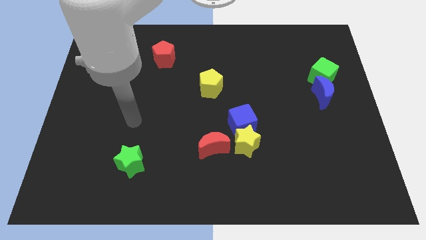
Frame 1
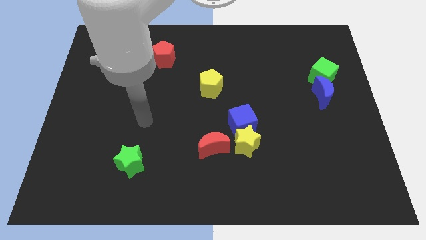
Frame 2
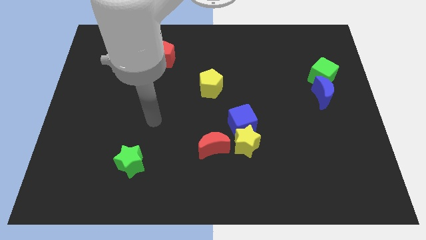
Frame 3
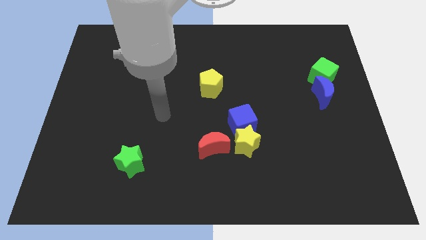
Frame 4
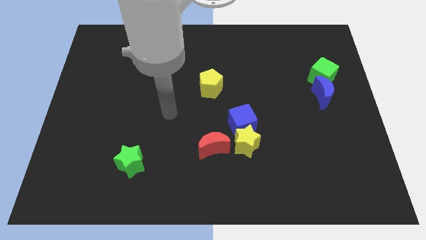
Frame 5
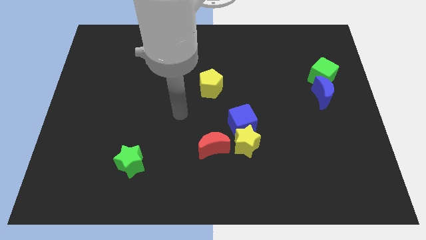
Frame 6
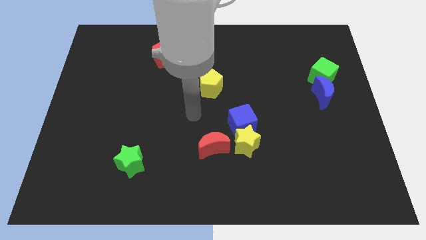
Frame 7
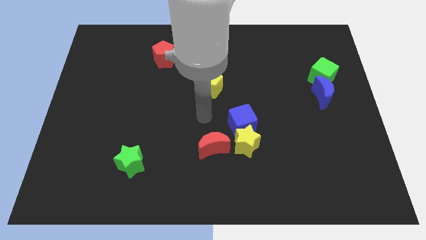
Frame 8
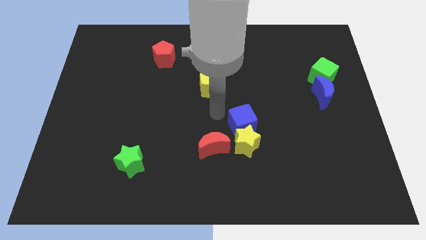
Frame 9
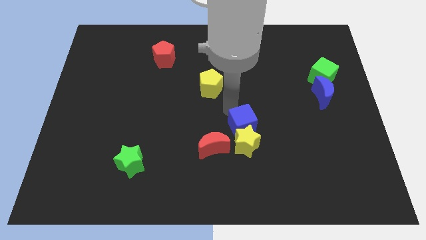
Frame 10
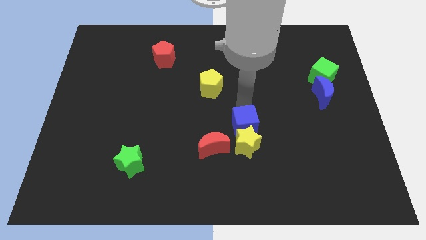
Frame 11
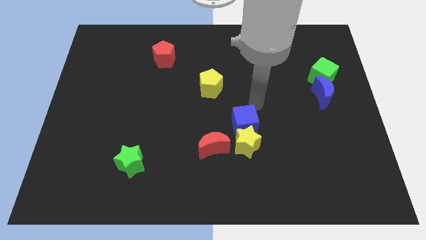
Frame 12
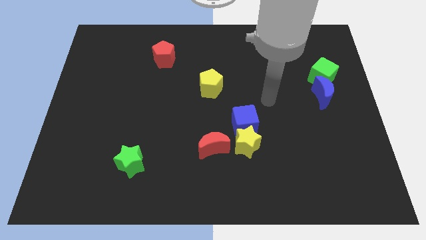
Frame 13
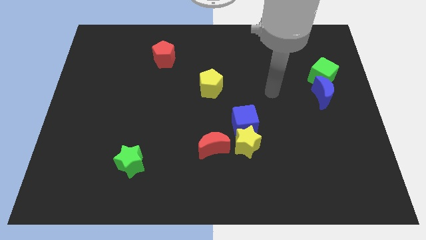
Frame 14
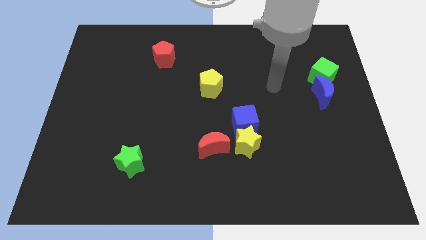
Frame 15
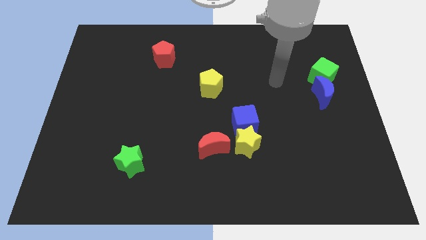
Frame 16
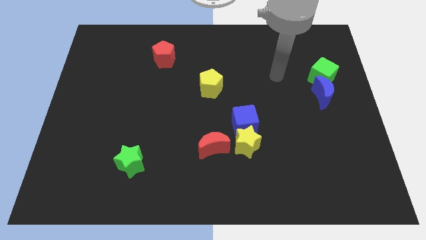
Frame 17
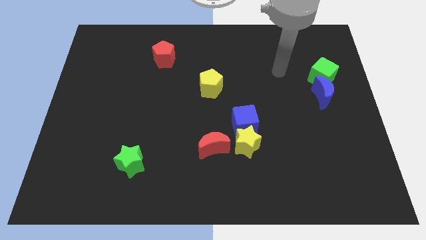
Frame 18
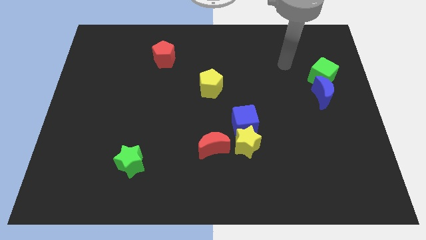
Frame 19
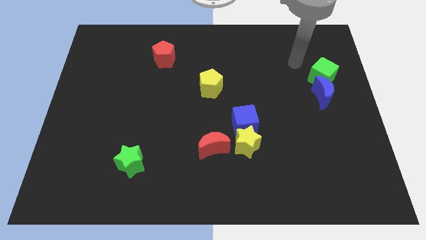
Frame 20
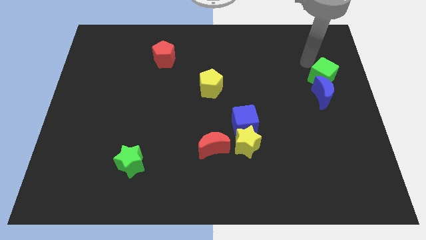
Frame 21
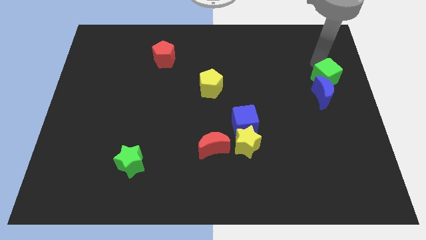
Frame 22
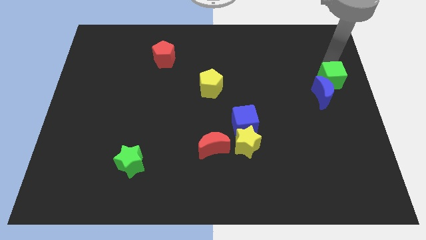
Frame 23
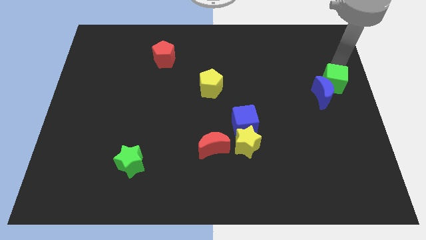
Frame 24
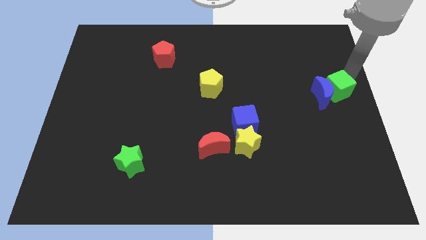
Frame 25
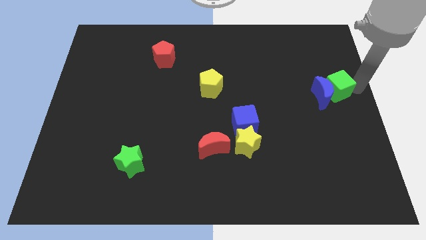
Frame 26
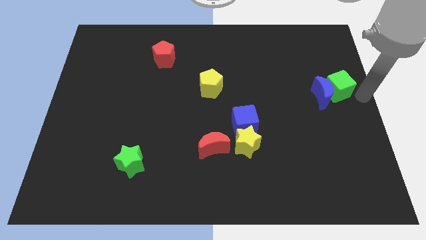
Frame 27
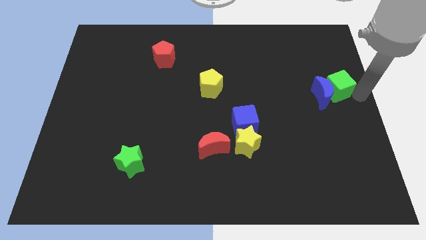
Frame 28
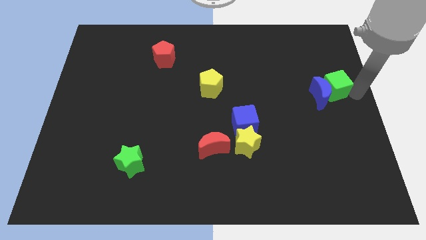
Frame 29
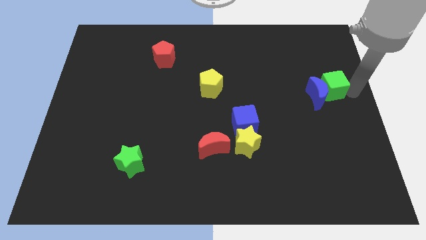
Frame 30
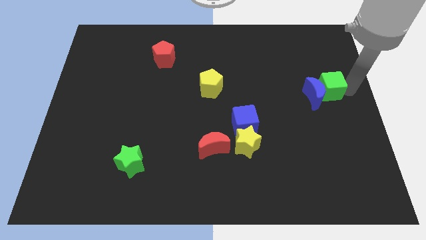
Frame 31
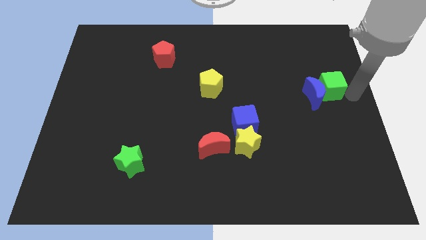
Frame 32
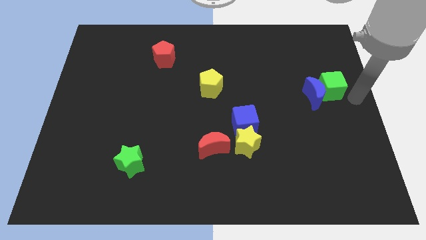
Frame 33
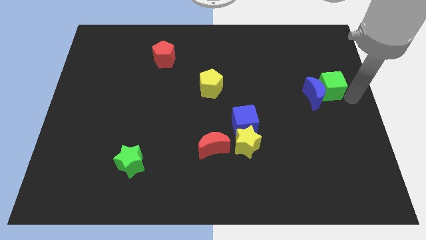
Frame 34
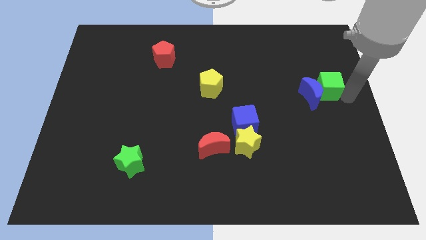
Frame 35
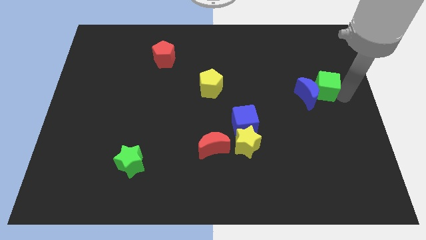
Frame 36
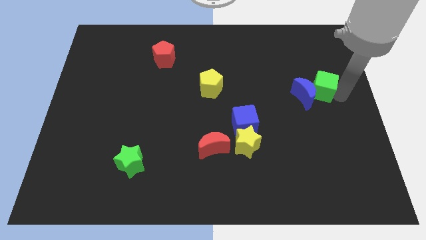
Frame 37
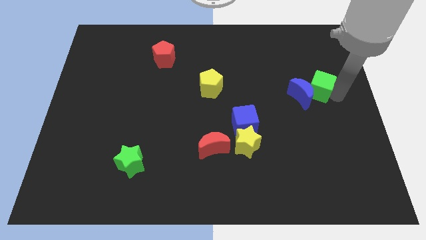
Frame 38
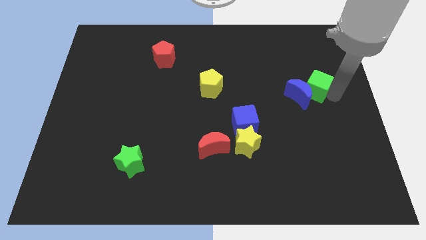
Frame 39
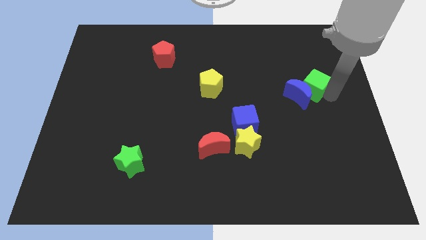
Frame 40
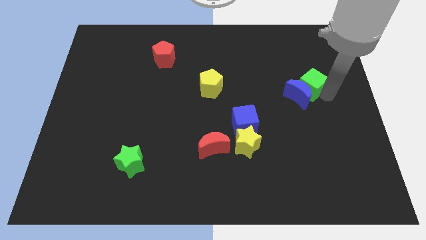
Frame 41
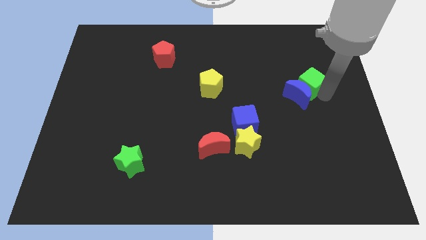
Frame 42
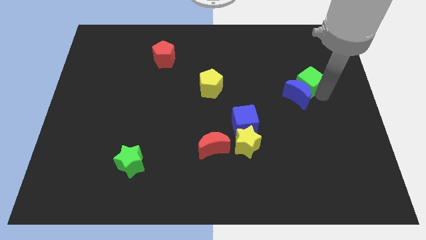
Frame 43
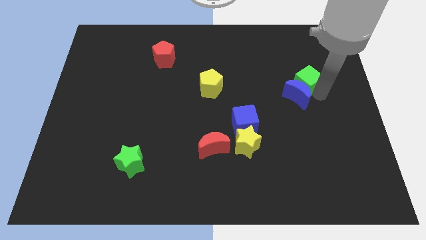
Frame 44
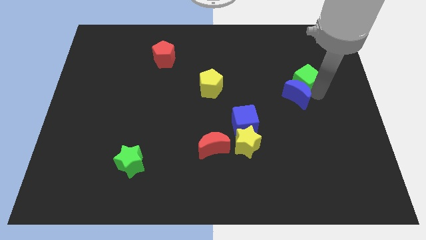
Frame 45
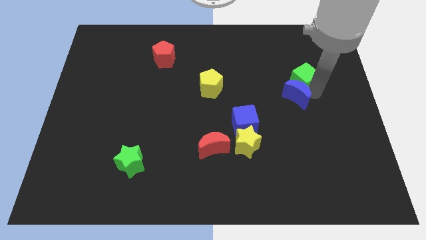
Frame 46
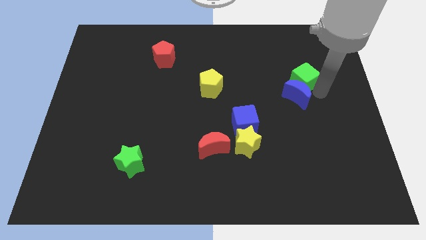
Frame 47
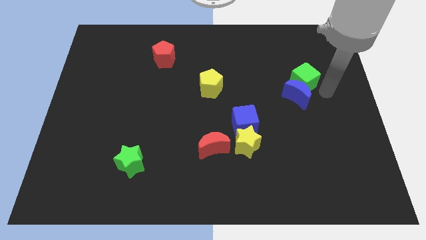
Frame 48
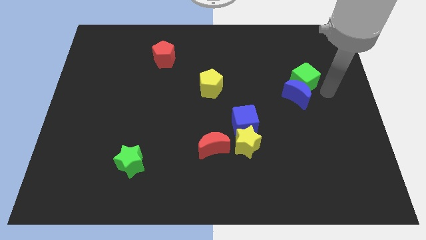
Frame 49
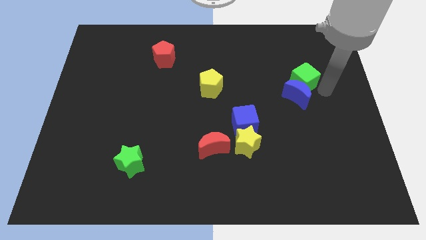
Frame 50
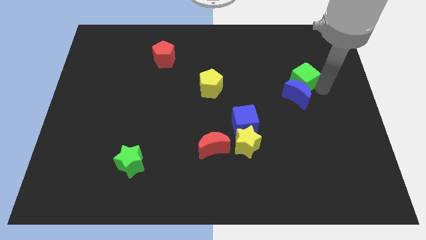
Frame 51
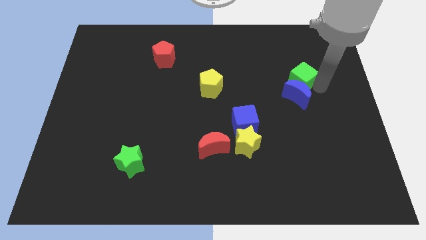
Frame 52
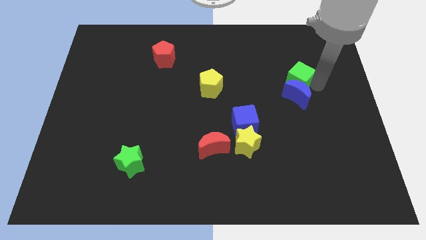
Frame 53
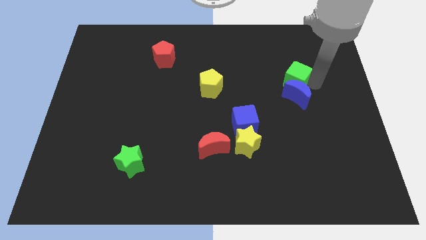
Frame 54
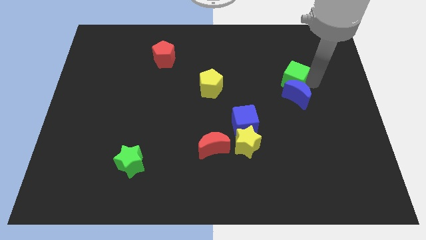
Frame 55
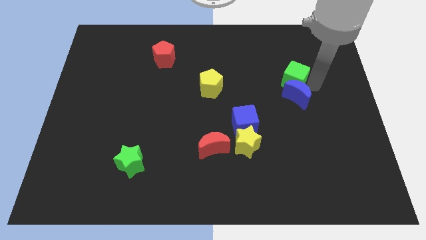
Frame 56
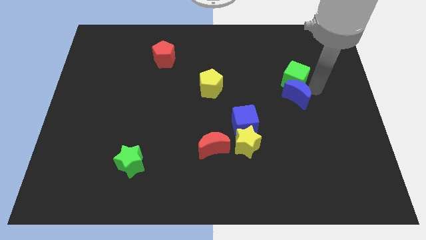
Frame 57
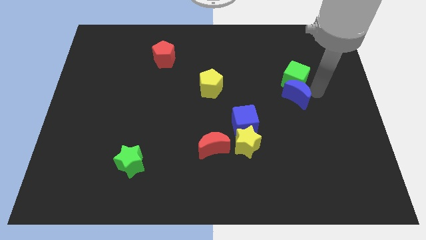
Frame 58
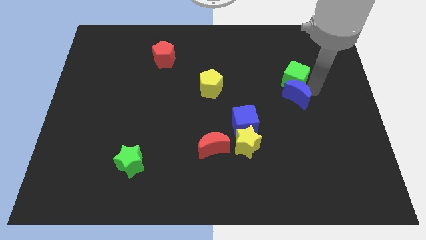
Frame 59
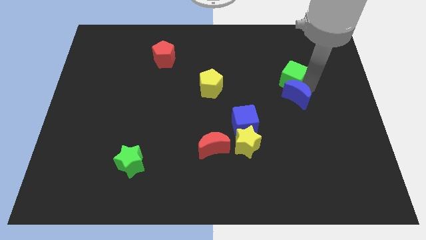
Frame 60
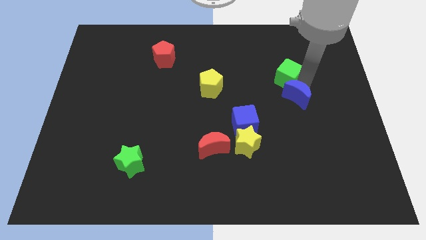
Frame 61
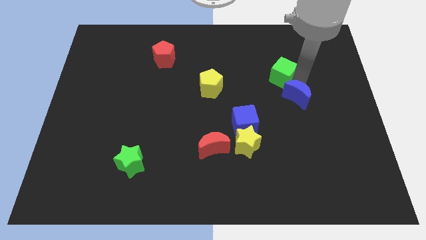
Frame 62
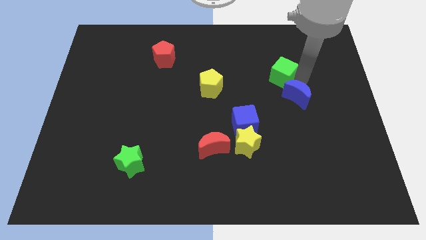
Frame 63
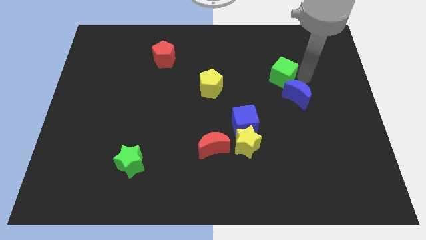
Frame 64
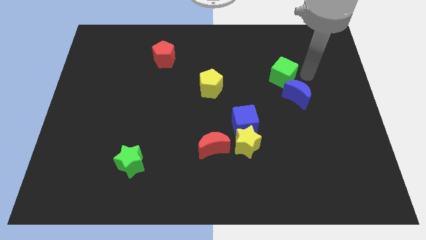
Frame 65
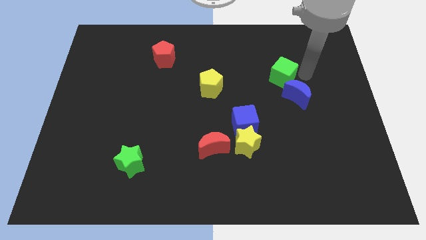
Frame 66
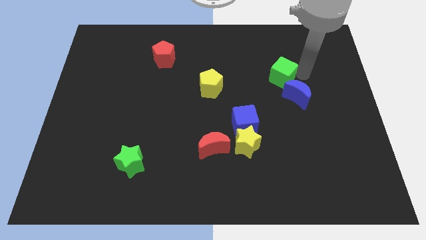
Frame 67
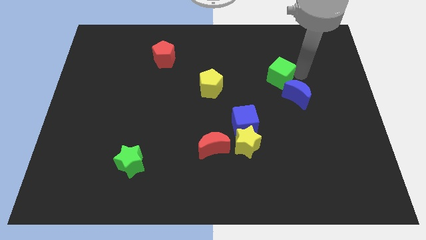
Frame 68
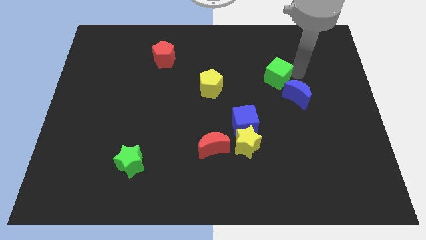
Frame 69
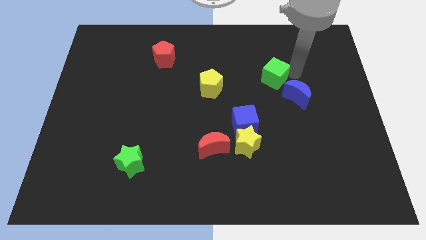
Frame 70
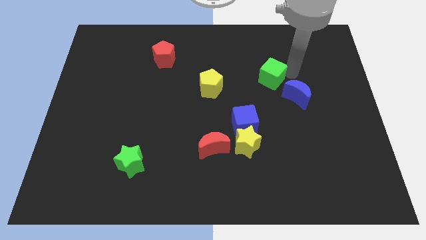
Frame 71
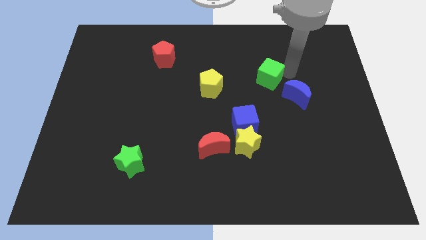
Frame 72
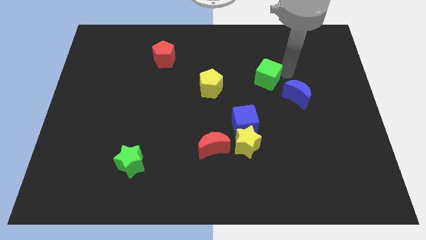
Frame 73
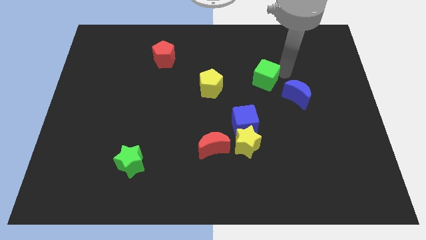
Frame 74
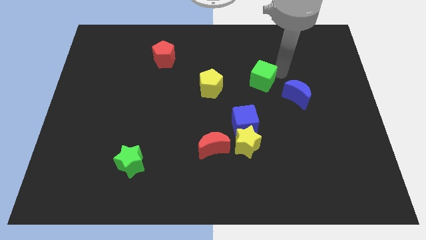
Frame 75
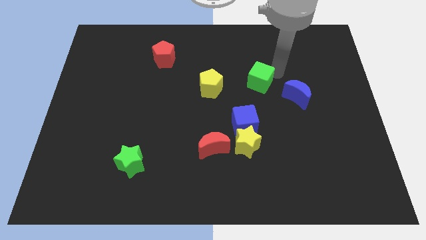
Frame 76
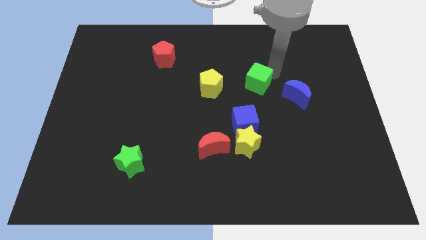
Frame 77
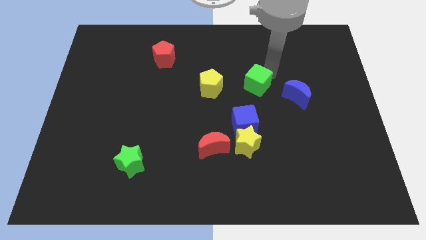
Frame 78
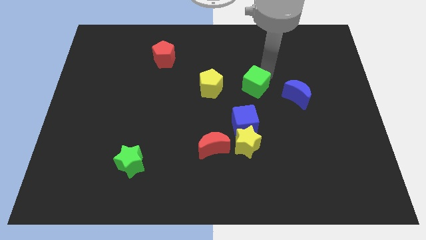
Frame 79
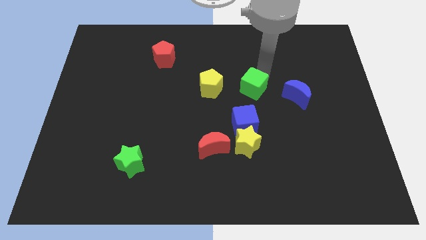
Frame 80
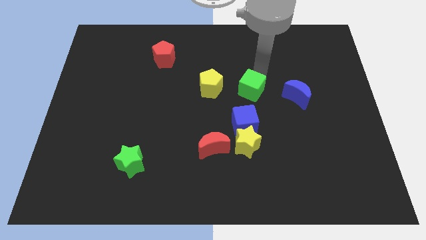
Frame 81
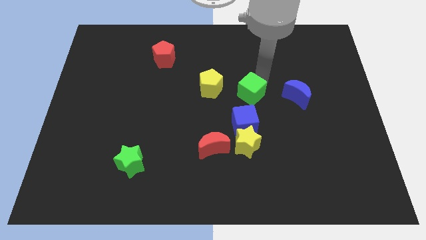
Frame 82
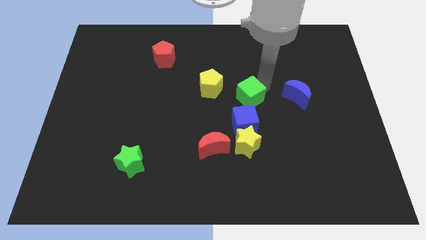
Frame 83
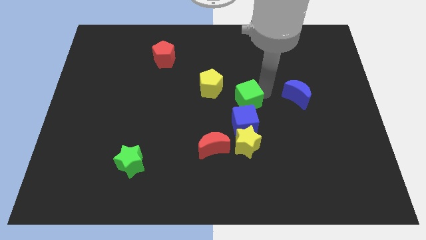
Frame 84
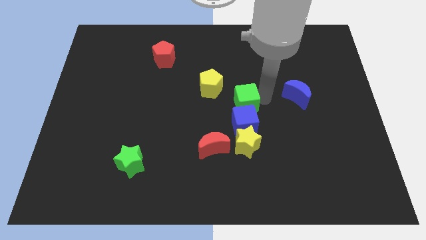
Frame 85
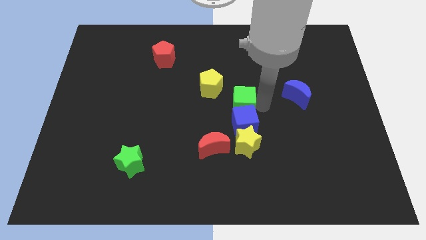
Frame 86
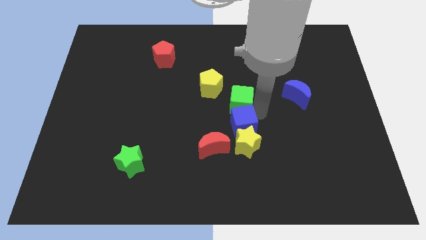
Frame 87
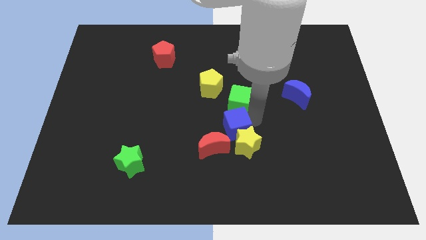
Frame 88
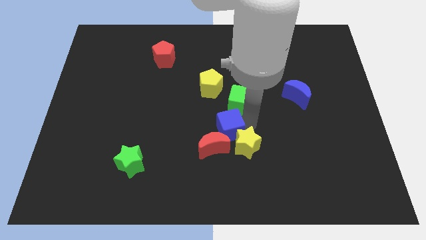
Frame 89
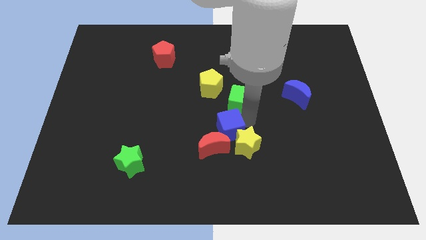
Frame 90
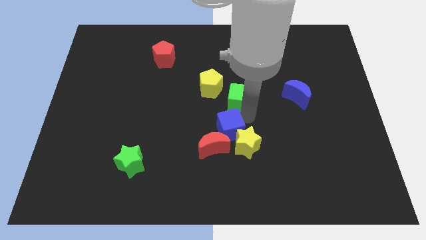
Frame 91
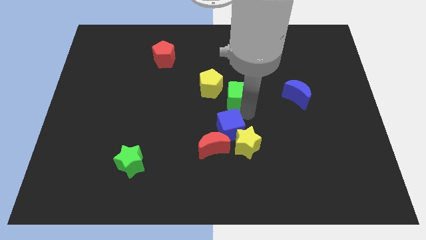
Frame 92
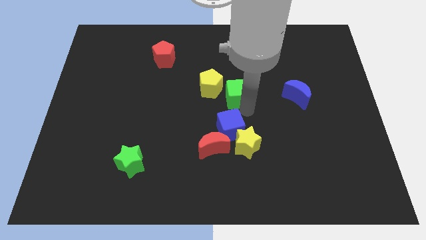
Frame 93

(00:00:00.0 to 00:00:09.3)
move the green cube left
